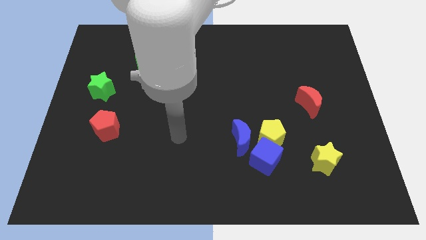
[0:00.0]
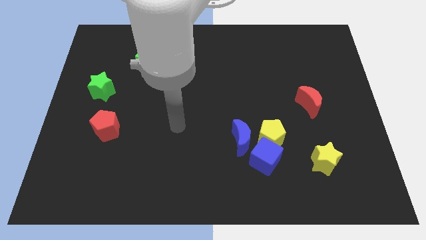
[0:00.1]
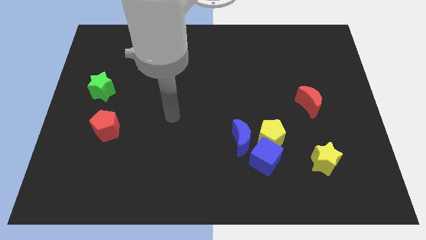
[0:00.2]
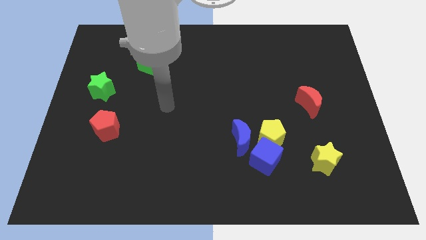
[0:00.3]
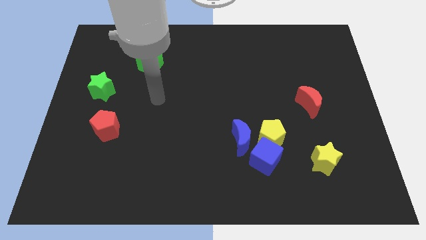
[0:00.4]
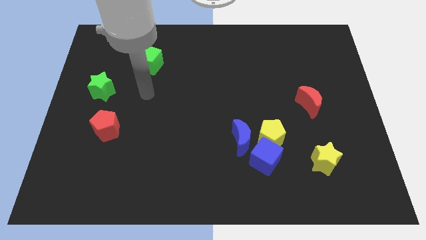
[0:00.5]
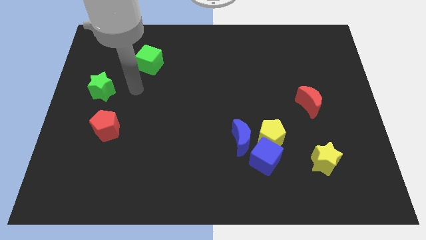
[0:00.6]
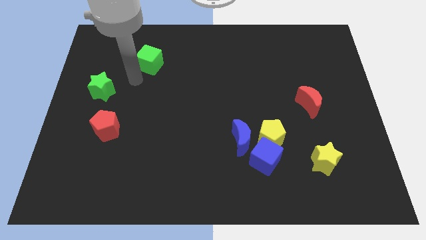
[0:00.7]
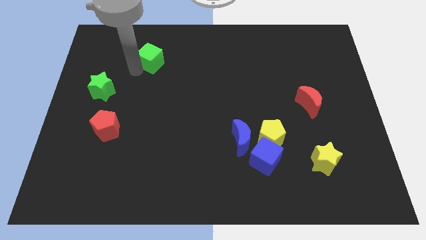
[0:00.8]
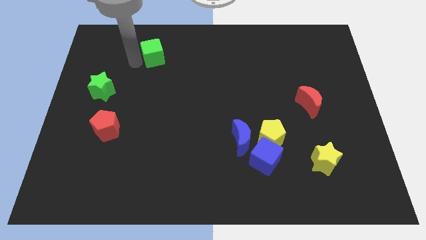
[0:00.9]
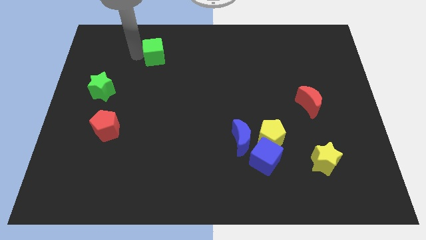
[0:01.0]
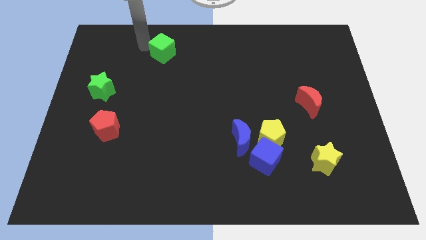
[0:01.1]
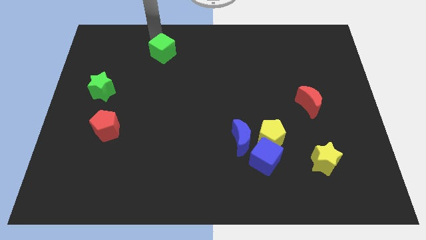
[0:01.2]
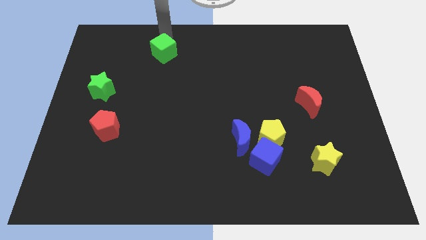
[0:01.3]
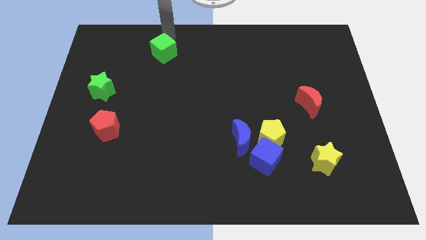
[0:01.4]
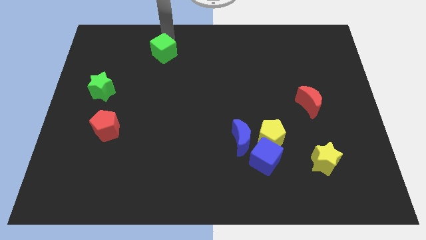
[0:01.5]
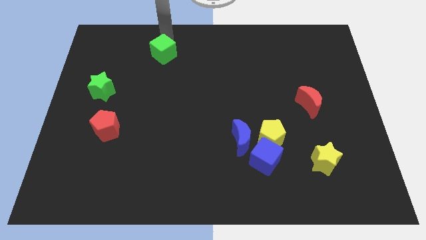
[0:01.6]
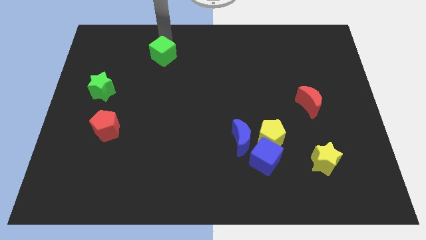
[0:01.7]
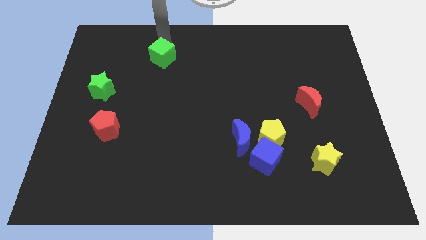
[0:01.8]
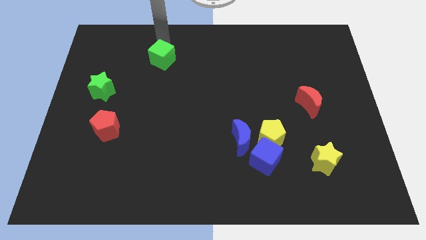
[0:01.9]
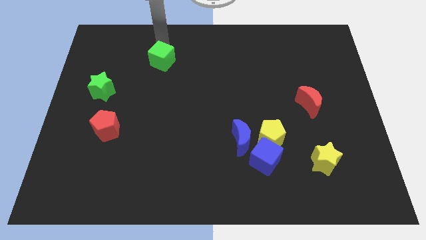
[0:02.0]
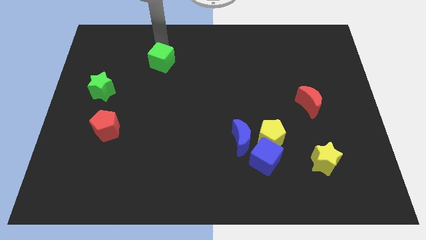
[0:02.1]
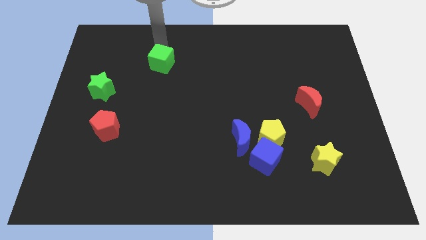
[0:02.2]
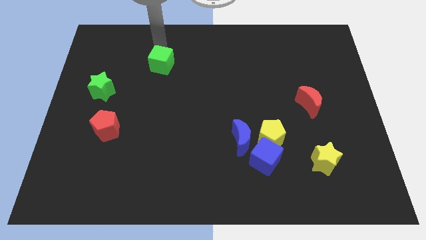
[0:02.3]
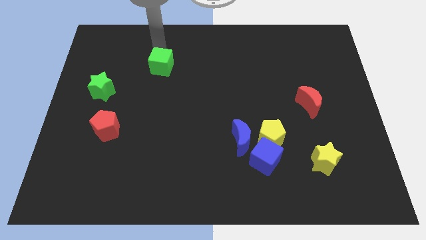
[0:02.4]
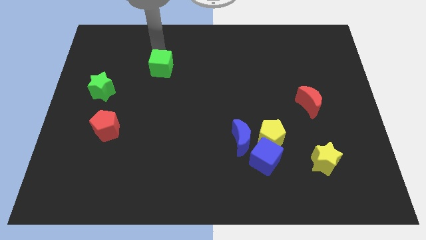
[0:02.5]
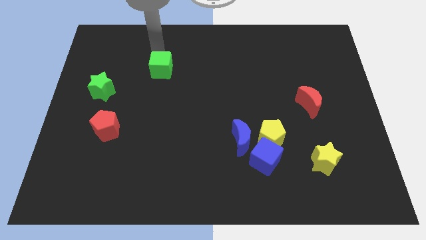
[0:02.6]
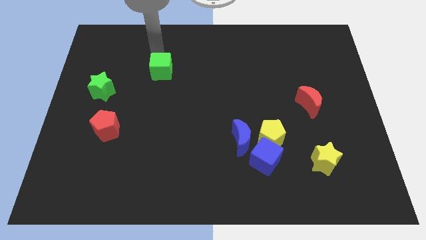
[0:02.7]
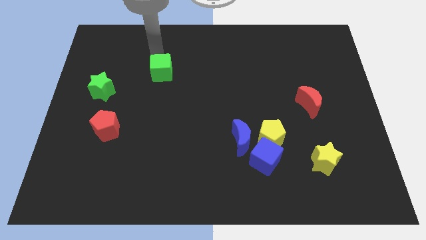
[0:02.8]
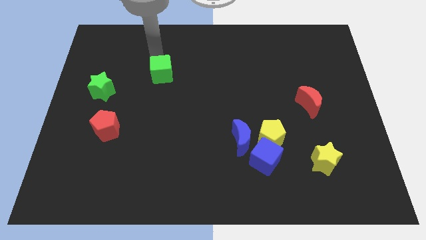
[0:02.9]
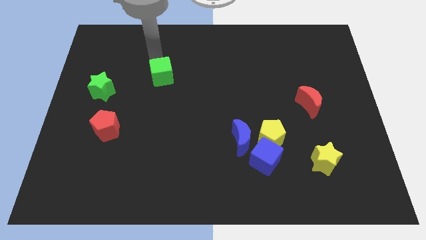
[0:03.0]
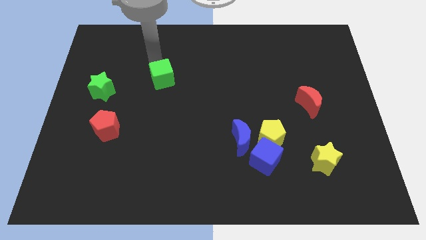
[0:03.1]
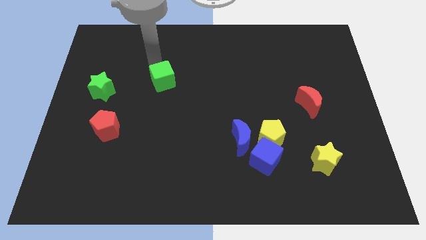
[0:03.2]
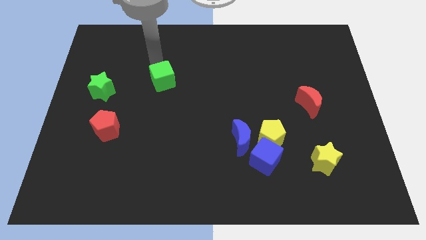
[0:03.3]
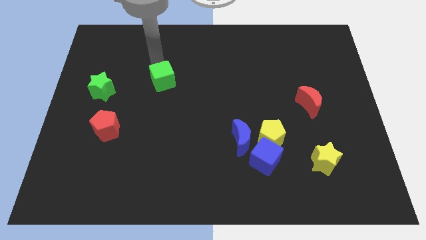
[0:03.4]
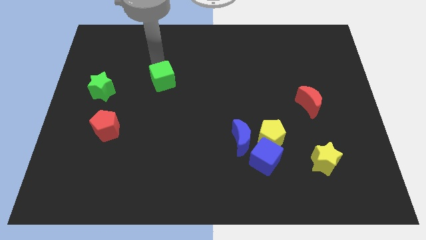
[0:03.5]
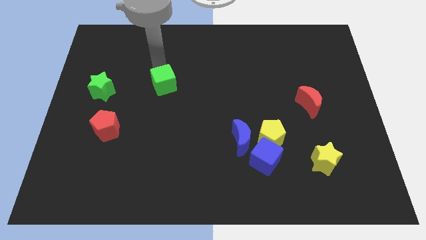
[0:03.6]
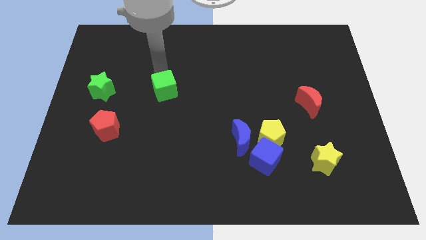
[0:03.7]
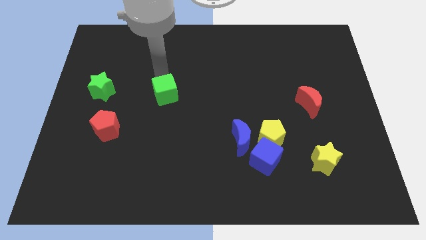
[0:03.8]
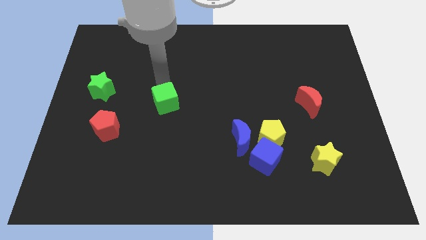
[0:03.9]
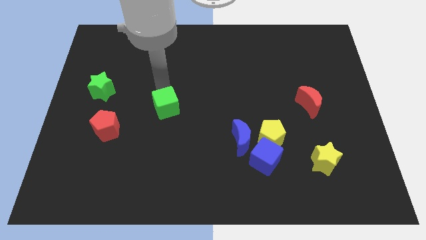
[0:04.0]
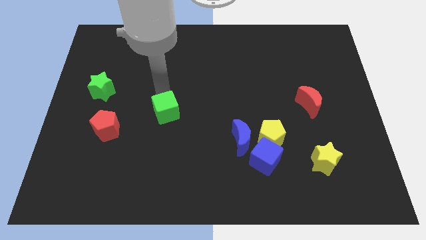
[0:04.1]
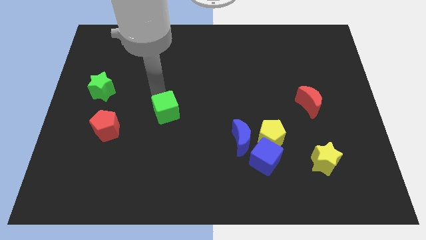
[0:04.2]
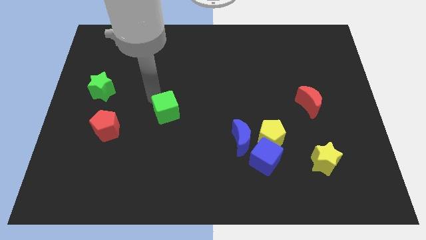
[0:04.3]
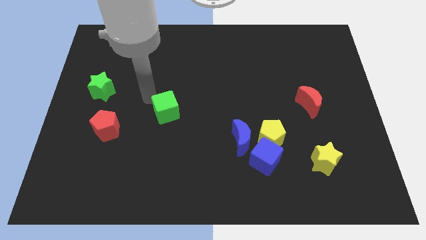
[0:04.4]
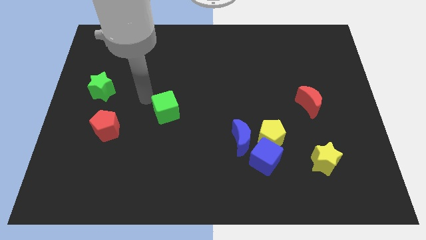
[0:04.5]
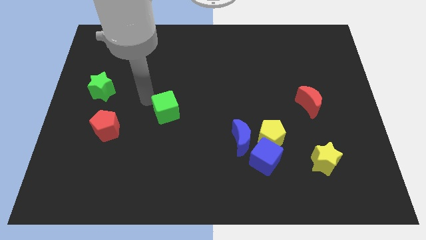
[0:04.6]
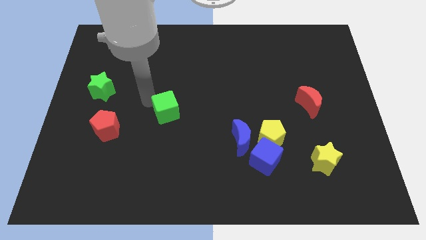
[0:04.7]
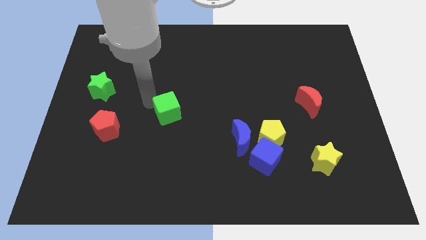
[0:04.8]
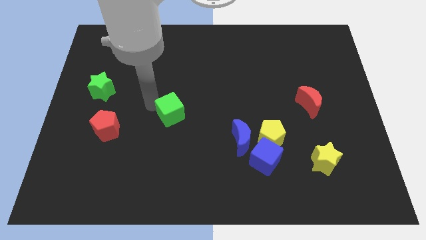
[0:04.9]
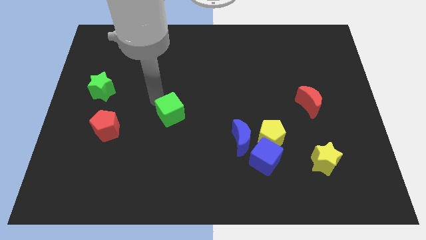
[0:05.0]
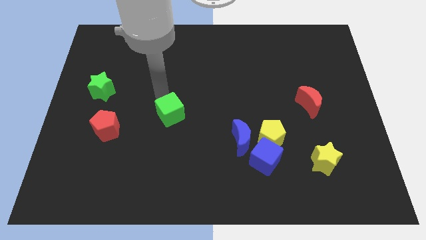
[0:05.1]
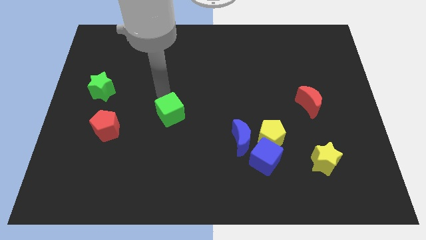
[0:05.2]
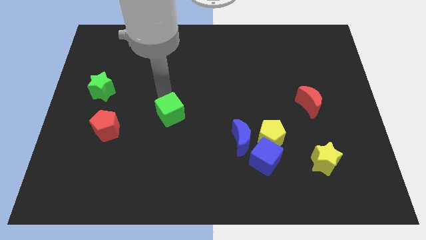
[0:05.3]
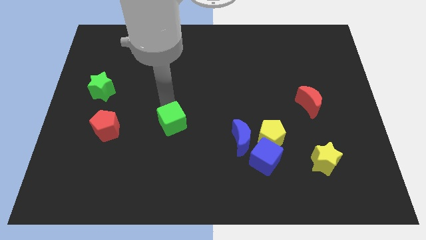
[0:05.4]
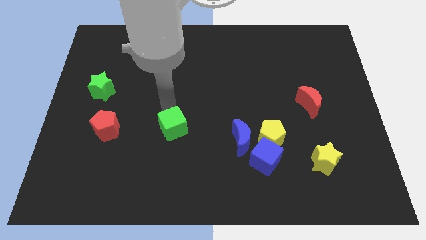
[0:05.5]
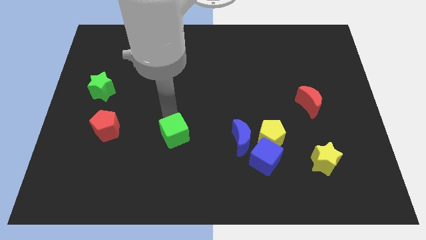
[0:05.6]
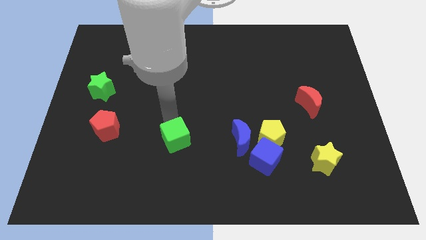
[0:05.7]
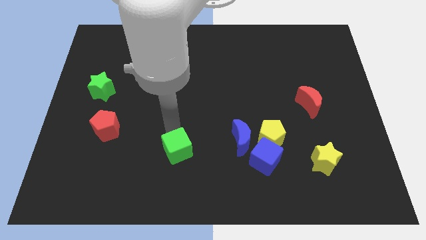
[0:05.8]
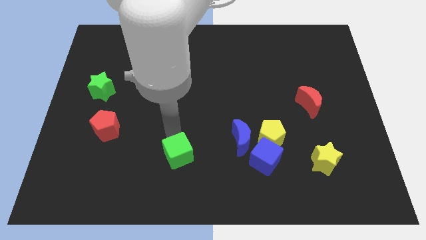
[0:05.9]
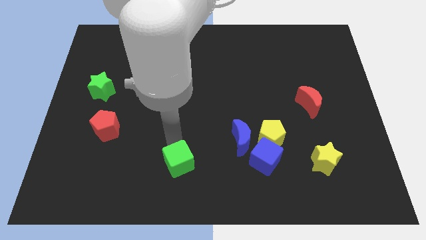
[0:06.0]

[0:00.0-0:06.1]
move the green cube to the bottom

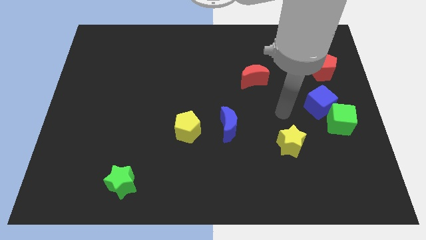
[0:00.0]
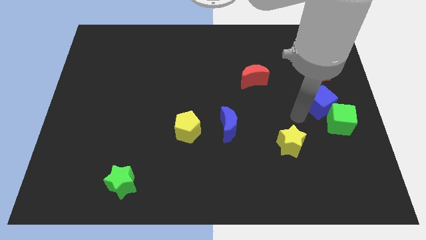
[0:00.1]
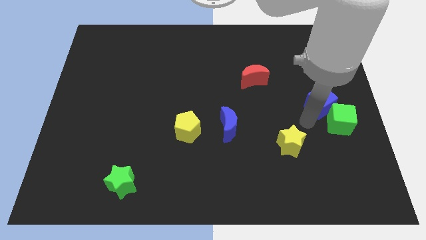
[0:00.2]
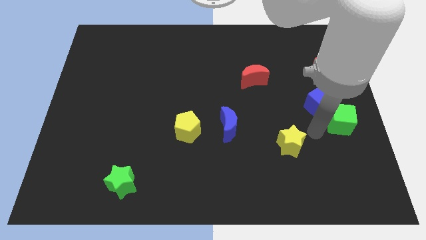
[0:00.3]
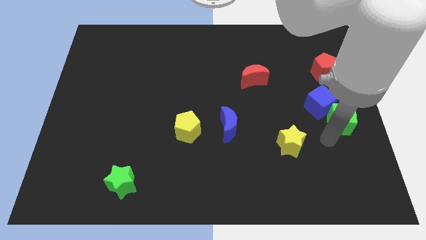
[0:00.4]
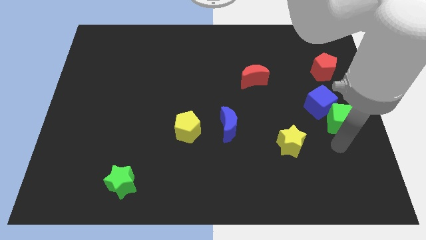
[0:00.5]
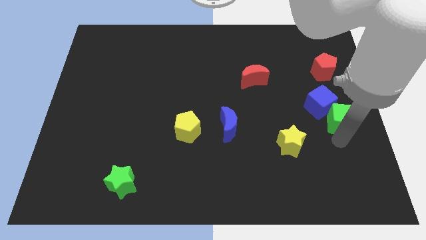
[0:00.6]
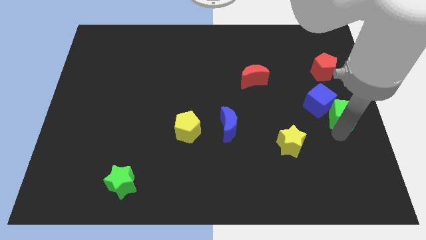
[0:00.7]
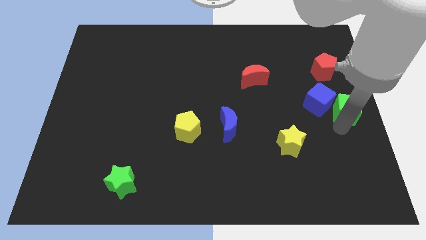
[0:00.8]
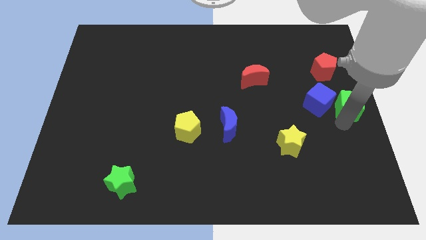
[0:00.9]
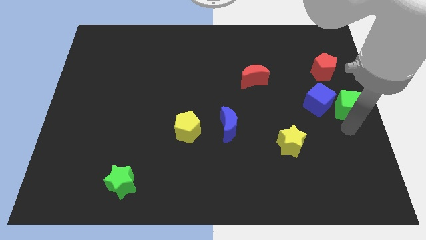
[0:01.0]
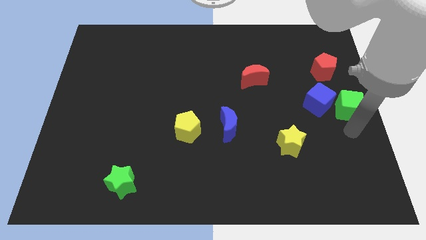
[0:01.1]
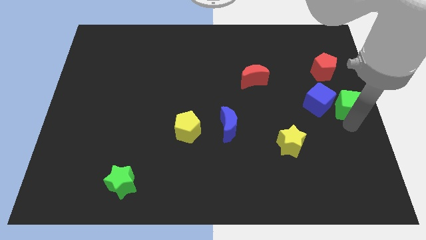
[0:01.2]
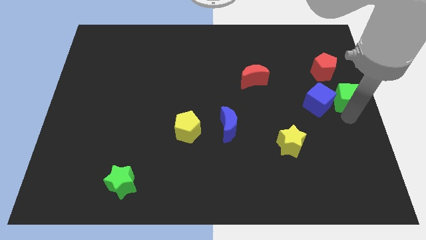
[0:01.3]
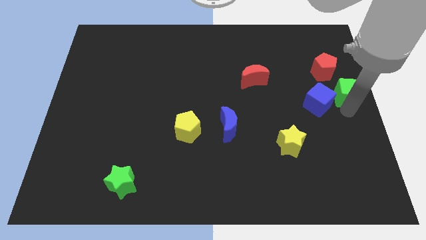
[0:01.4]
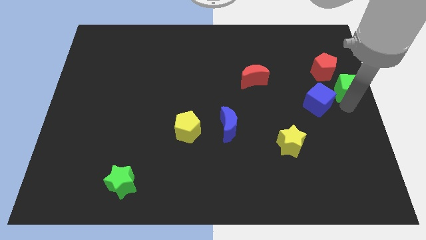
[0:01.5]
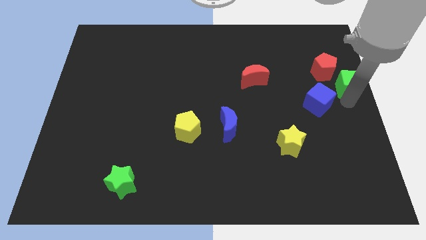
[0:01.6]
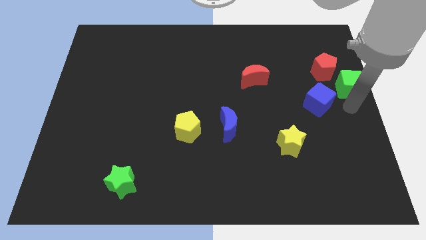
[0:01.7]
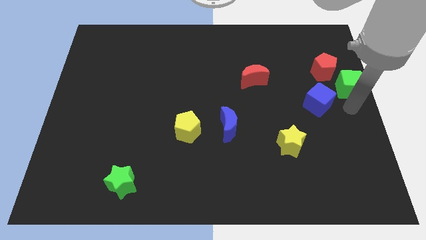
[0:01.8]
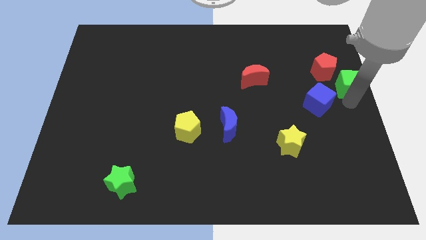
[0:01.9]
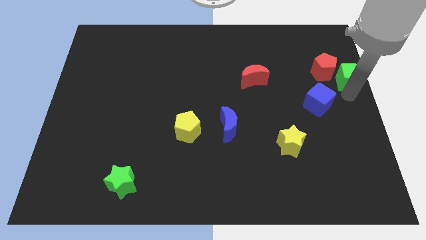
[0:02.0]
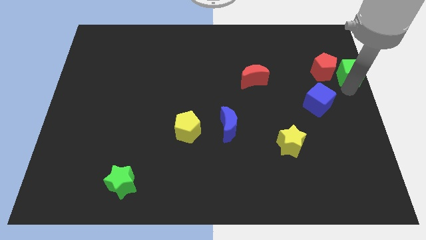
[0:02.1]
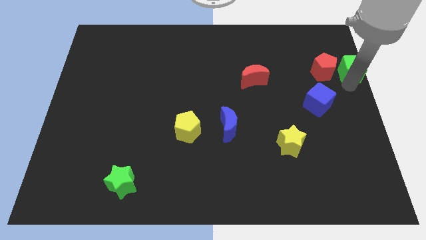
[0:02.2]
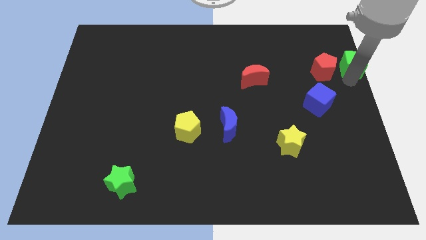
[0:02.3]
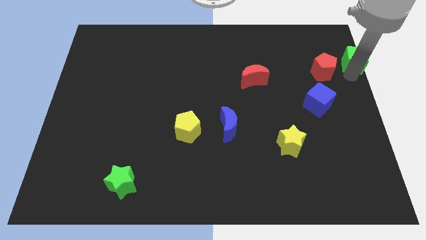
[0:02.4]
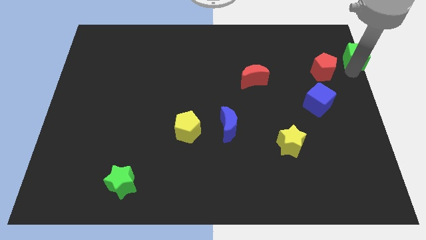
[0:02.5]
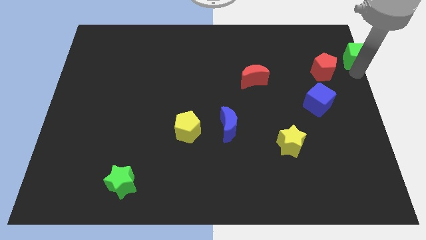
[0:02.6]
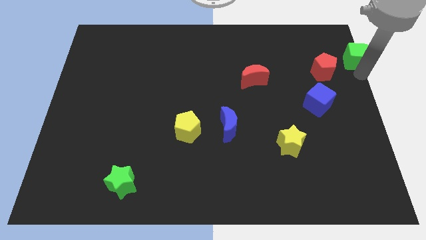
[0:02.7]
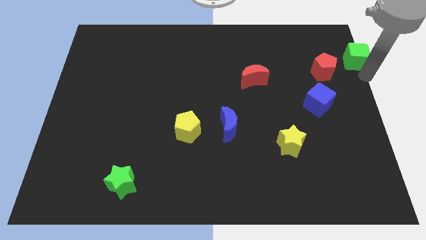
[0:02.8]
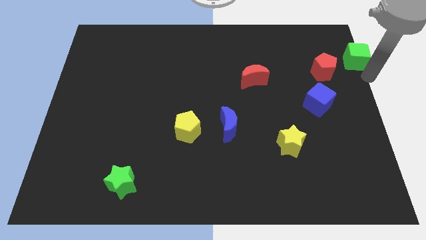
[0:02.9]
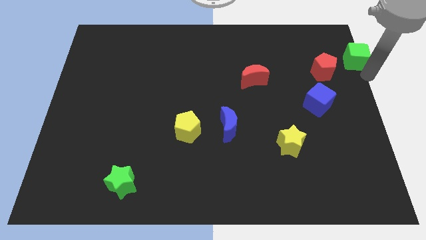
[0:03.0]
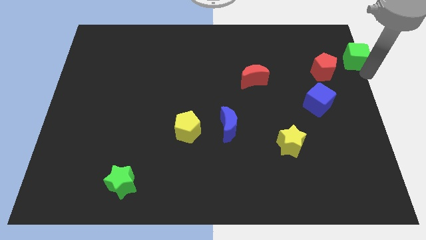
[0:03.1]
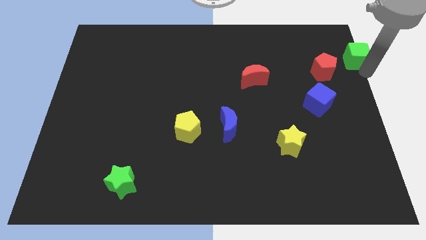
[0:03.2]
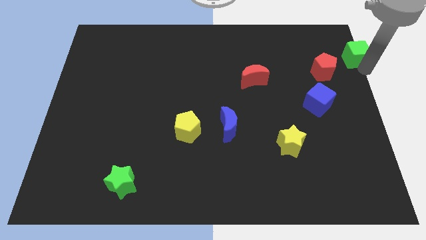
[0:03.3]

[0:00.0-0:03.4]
slide the green cube to the top right corner
